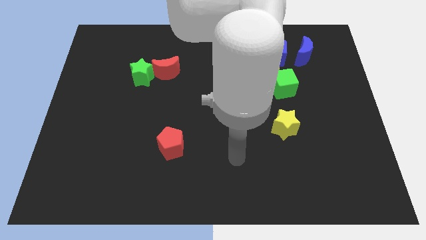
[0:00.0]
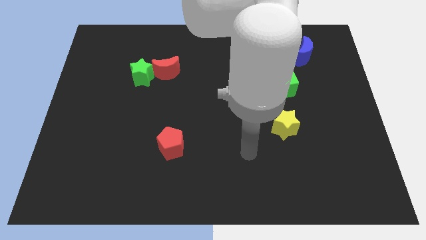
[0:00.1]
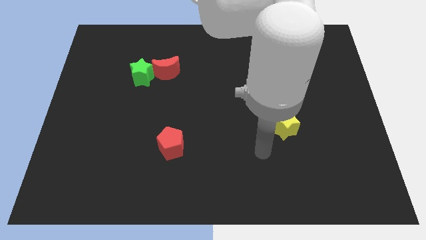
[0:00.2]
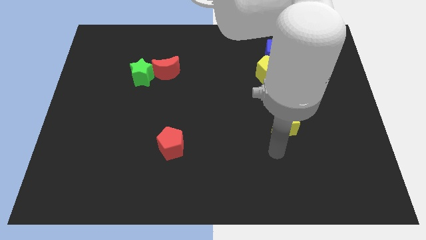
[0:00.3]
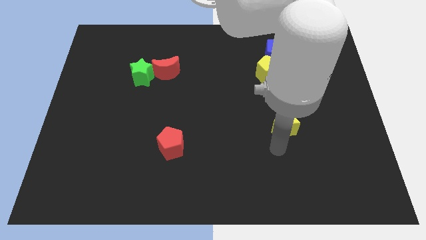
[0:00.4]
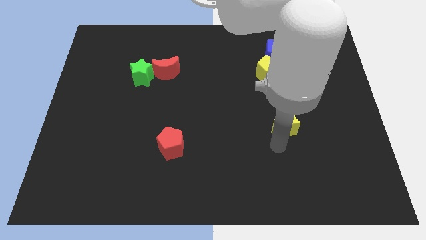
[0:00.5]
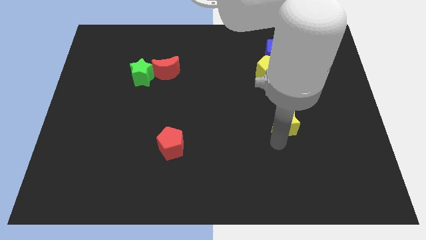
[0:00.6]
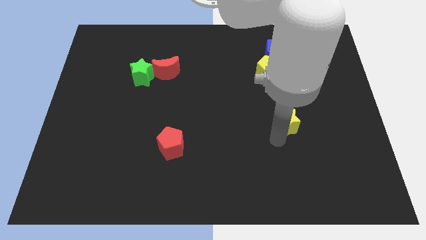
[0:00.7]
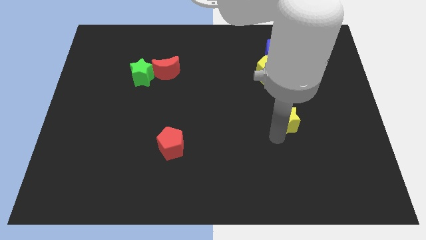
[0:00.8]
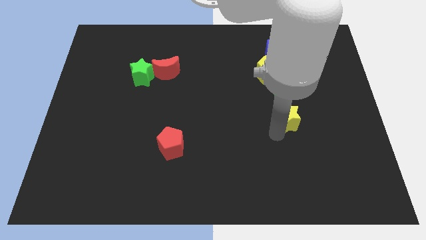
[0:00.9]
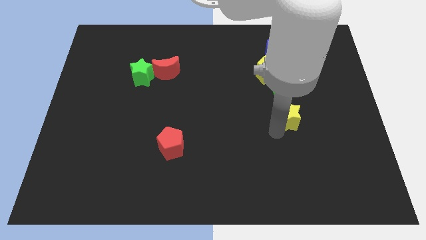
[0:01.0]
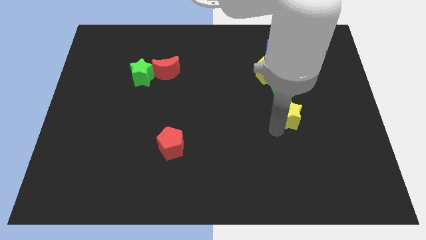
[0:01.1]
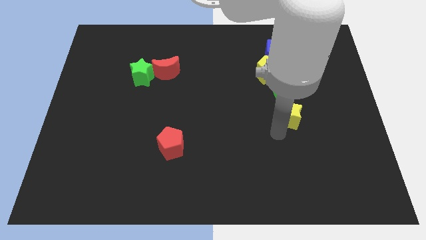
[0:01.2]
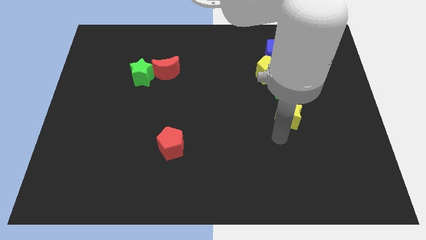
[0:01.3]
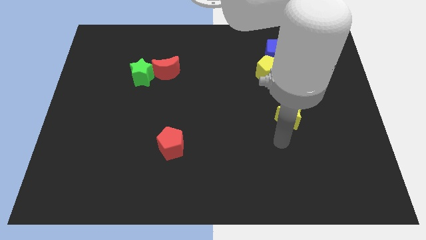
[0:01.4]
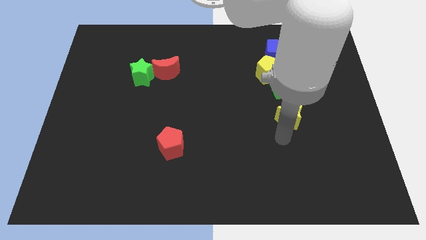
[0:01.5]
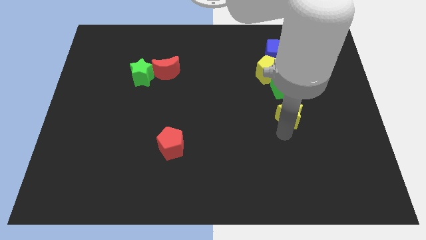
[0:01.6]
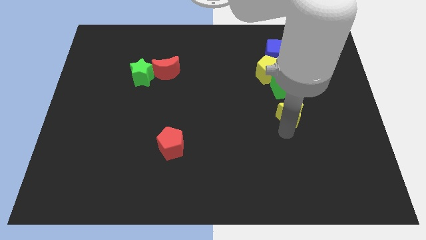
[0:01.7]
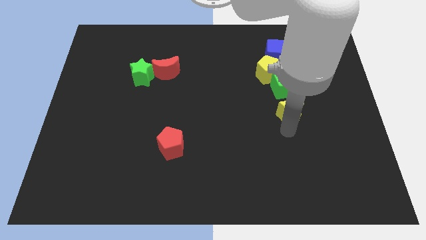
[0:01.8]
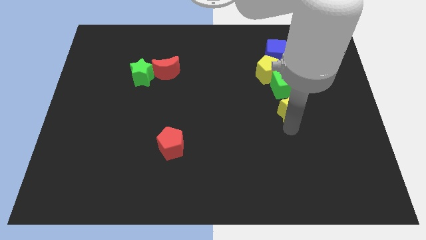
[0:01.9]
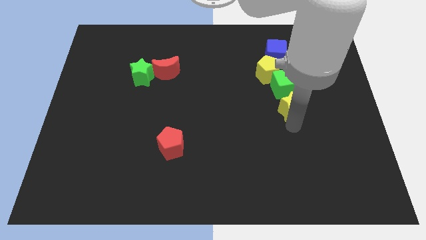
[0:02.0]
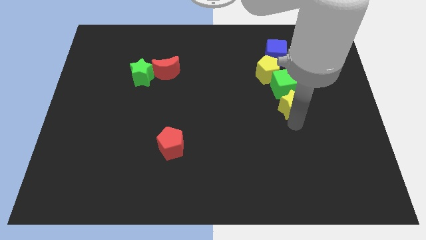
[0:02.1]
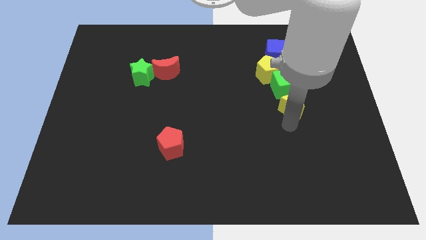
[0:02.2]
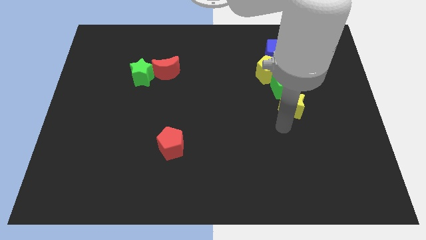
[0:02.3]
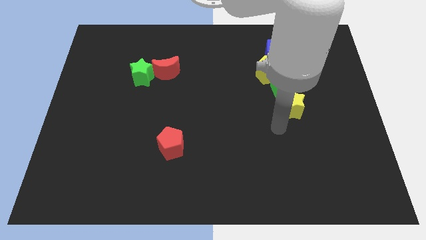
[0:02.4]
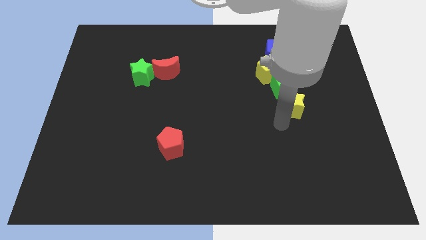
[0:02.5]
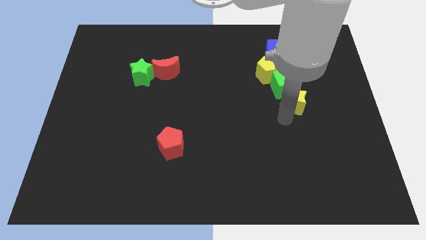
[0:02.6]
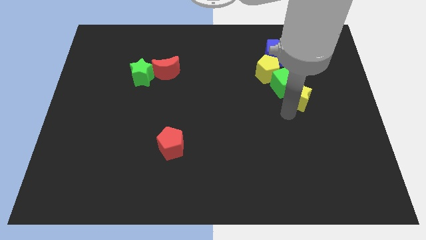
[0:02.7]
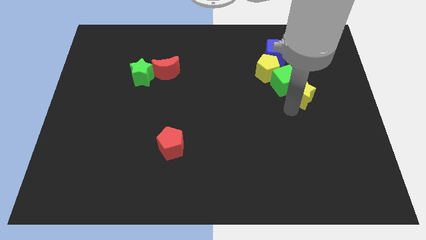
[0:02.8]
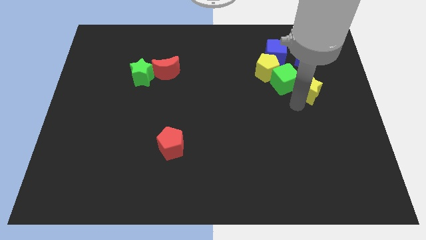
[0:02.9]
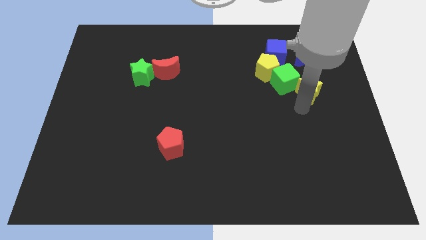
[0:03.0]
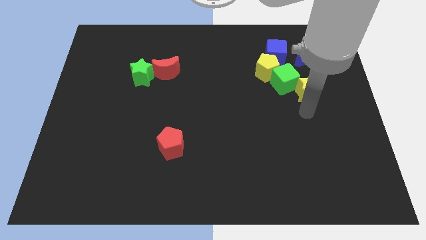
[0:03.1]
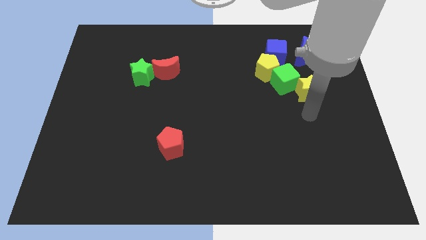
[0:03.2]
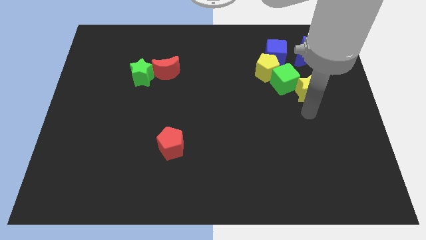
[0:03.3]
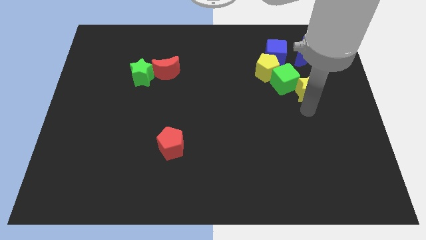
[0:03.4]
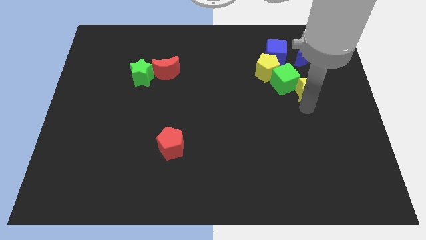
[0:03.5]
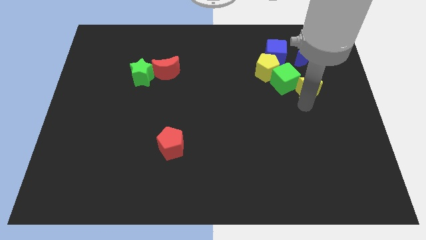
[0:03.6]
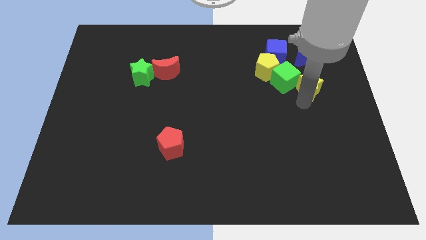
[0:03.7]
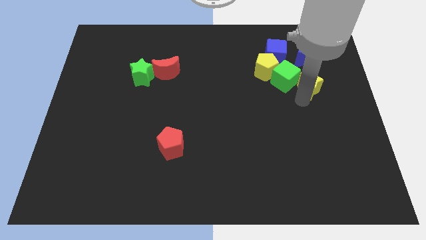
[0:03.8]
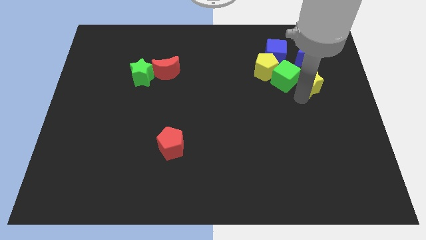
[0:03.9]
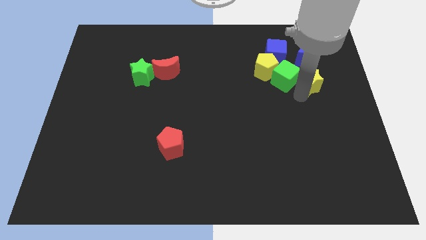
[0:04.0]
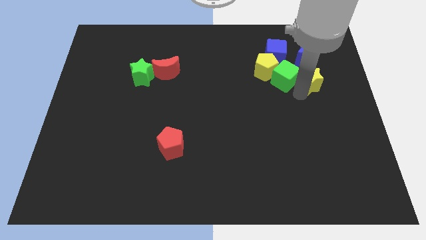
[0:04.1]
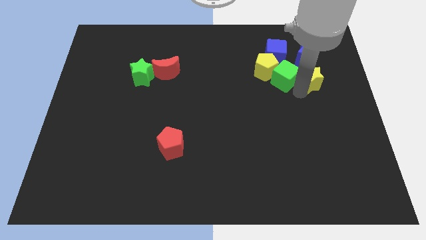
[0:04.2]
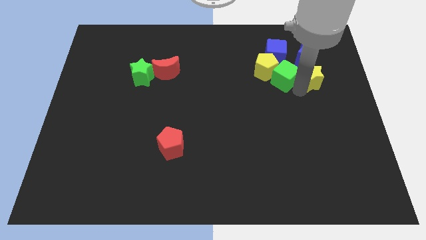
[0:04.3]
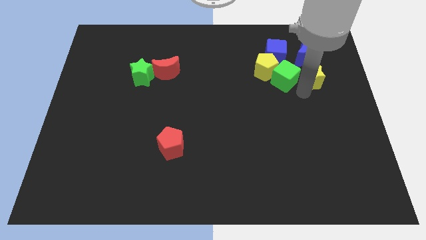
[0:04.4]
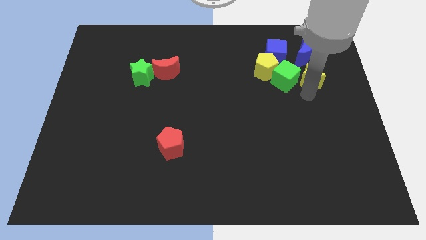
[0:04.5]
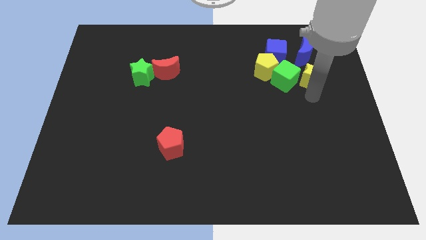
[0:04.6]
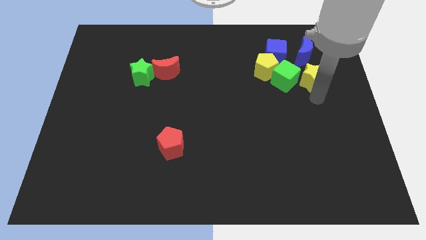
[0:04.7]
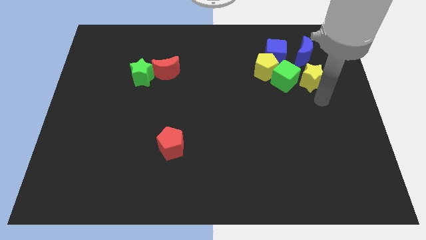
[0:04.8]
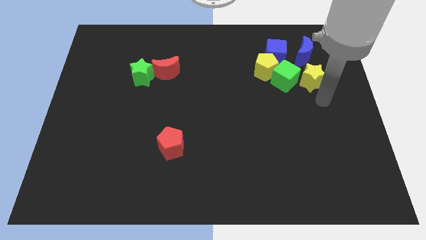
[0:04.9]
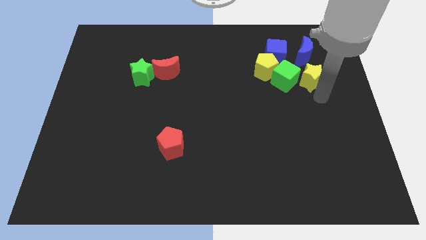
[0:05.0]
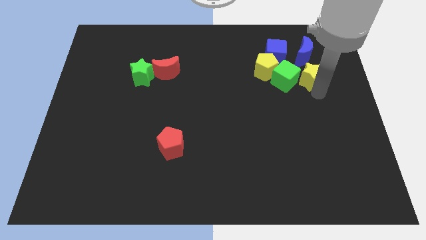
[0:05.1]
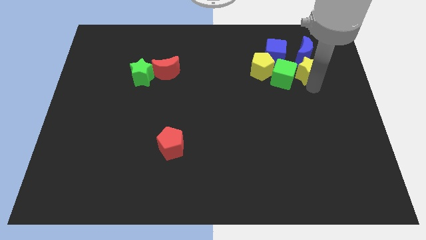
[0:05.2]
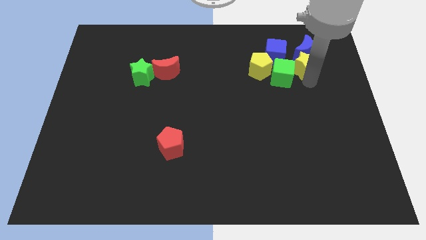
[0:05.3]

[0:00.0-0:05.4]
push the yellow star close to the blue moon

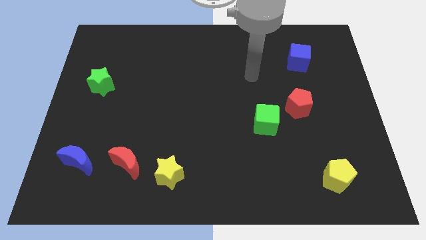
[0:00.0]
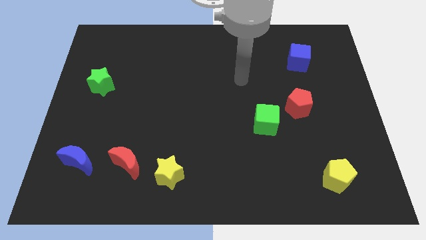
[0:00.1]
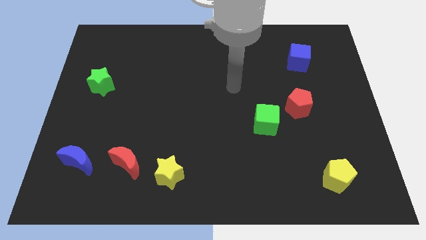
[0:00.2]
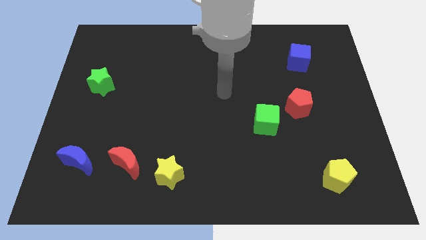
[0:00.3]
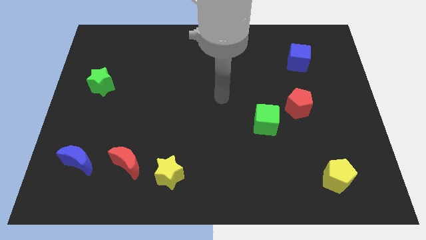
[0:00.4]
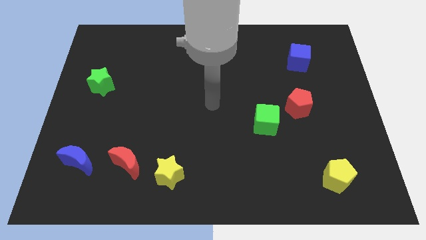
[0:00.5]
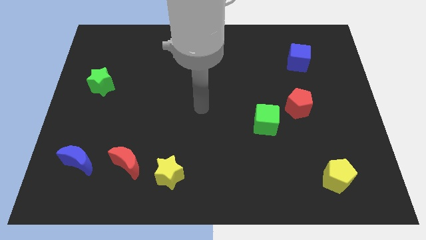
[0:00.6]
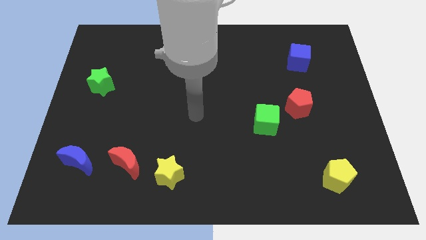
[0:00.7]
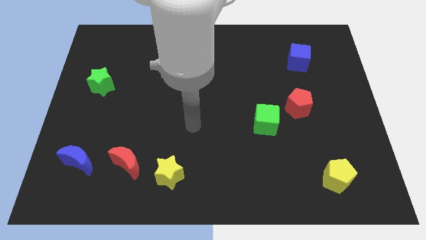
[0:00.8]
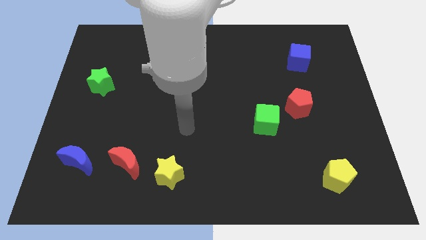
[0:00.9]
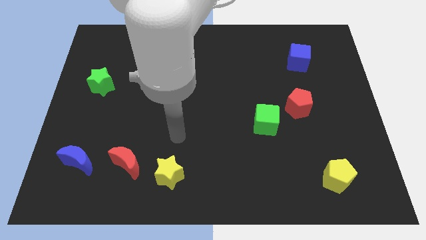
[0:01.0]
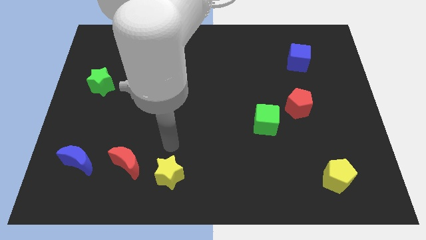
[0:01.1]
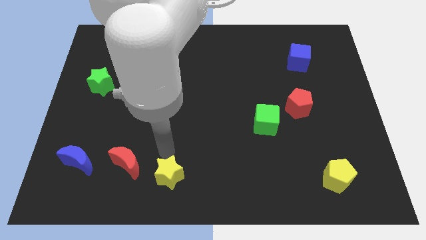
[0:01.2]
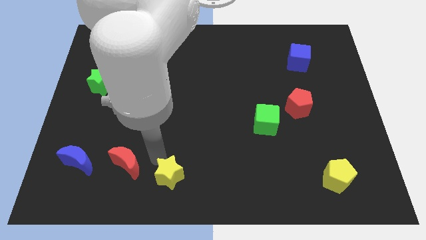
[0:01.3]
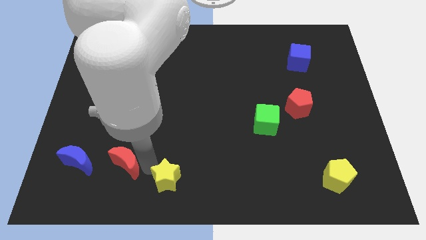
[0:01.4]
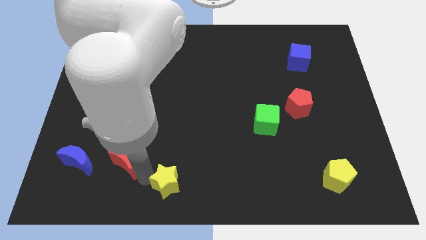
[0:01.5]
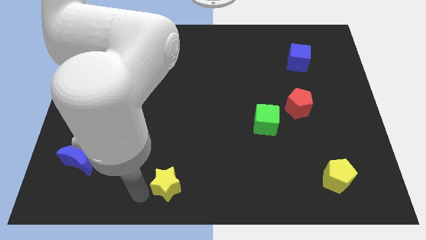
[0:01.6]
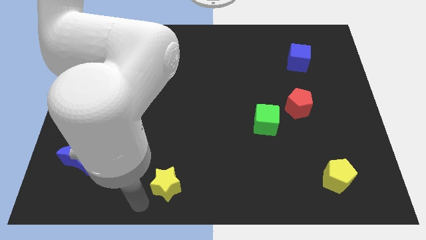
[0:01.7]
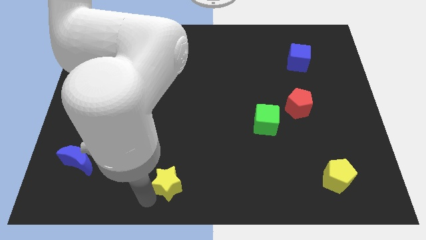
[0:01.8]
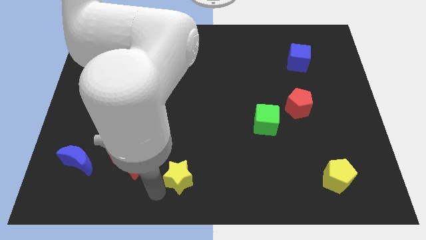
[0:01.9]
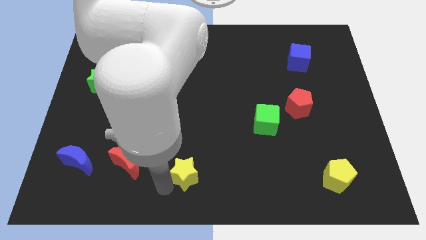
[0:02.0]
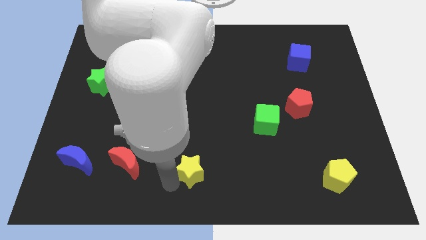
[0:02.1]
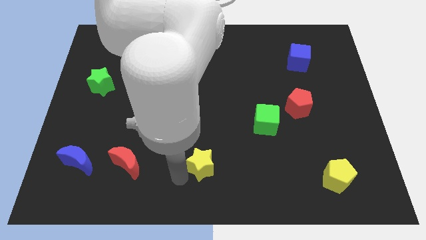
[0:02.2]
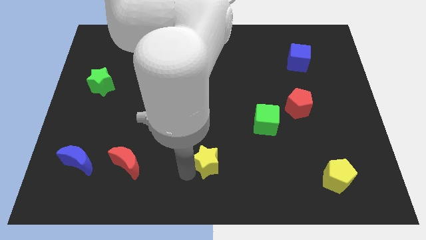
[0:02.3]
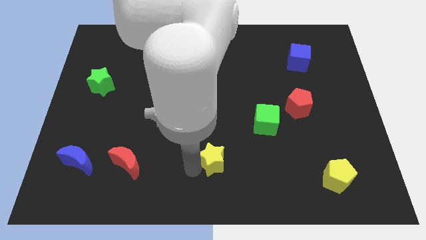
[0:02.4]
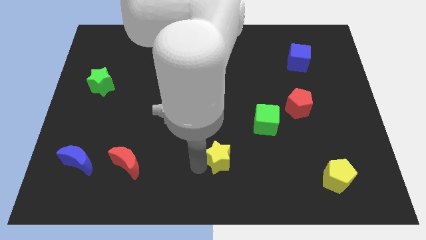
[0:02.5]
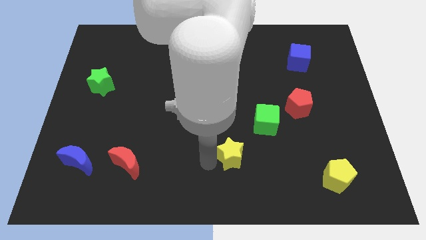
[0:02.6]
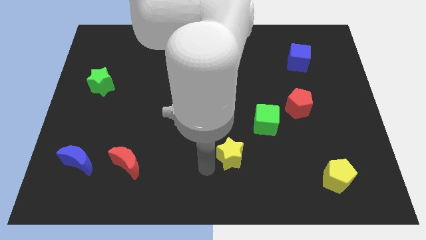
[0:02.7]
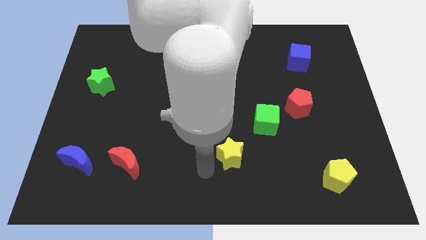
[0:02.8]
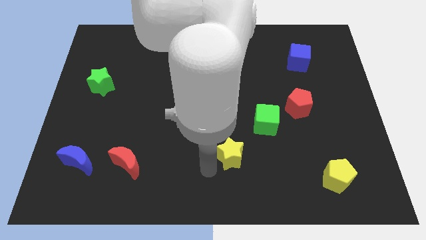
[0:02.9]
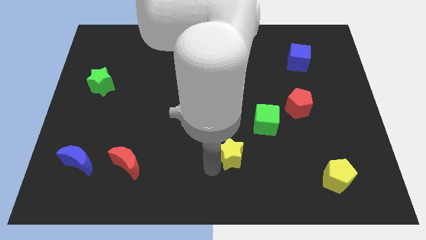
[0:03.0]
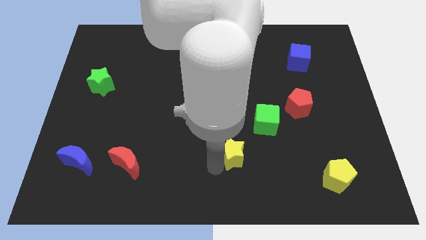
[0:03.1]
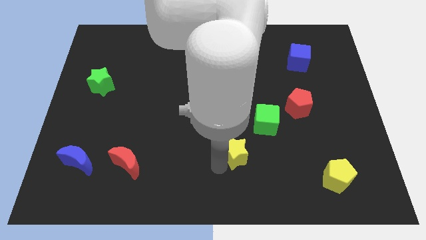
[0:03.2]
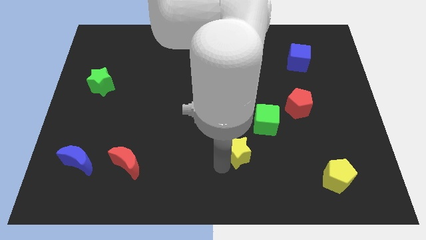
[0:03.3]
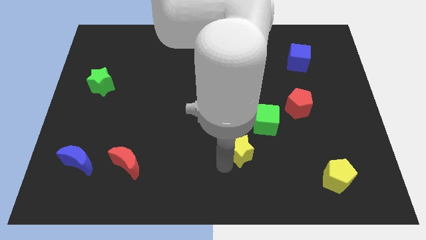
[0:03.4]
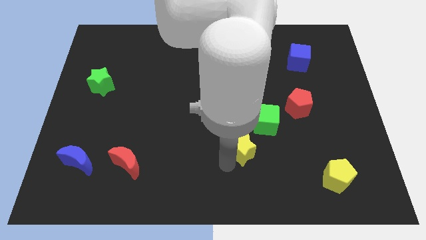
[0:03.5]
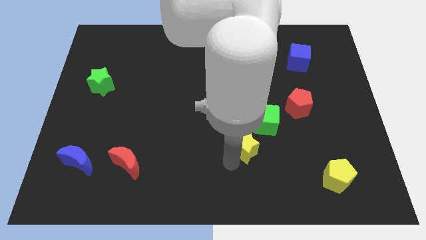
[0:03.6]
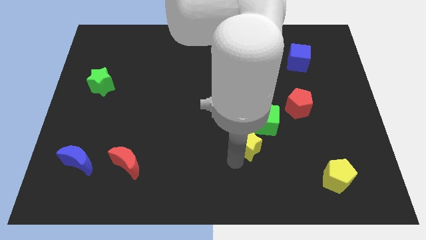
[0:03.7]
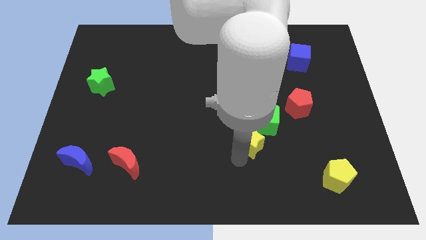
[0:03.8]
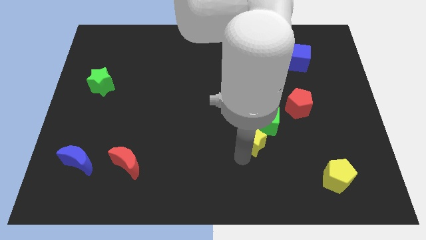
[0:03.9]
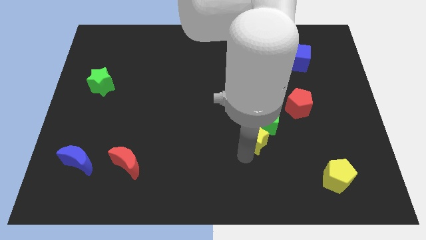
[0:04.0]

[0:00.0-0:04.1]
put the yellow star towards the green cube
